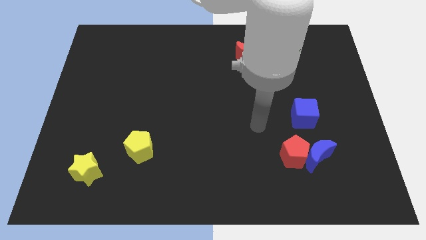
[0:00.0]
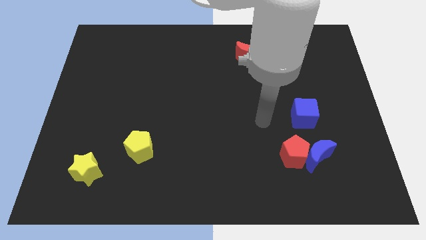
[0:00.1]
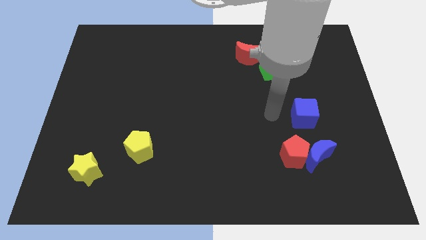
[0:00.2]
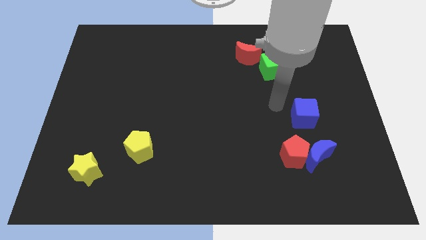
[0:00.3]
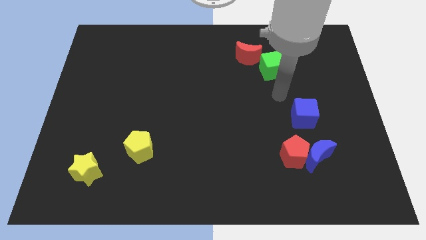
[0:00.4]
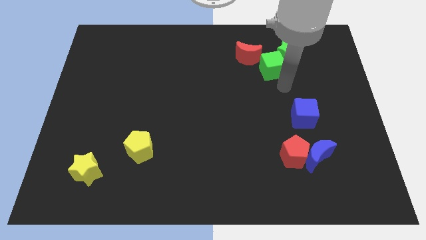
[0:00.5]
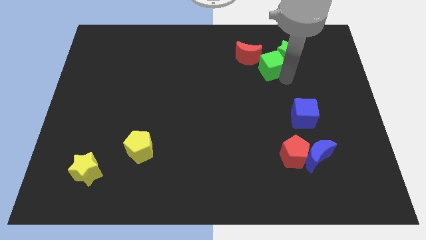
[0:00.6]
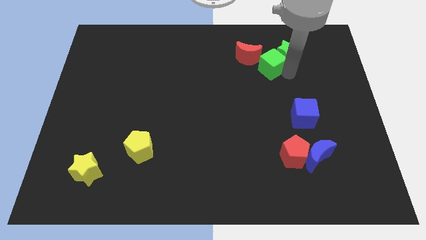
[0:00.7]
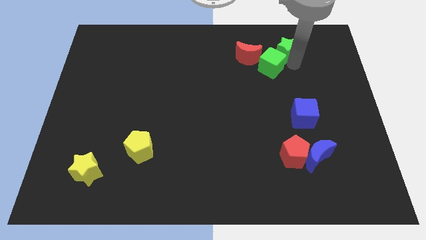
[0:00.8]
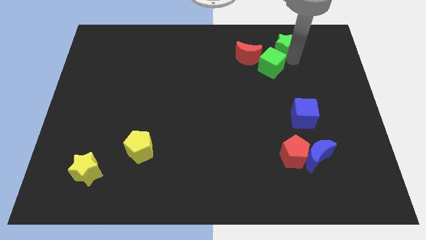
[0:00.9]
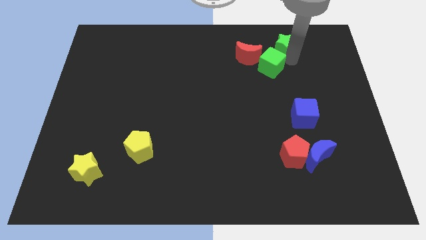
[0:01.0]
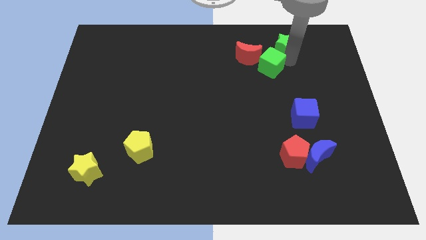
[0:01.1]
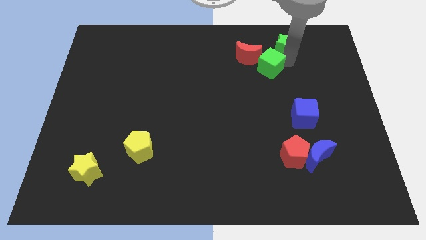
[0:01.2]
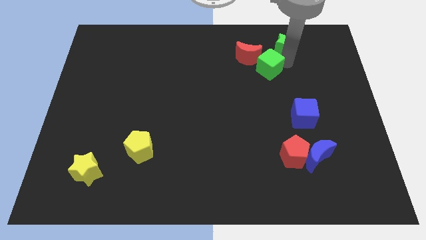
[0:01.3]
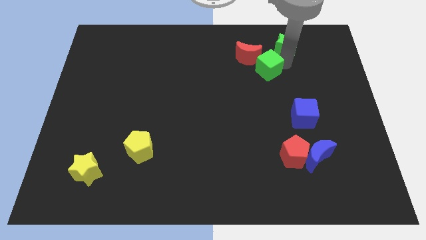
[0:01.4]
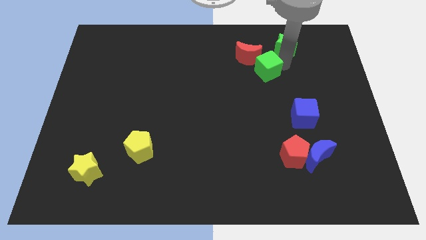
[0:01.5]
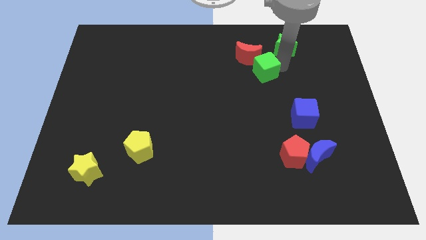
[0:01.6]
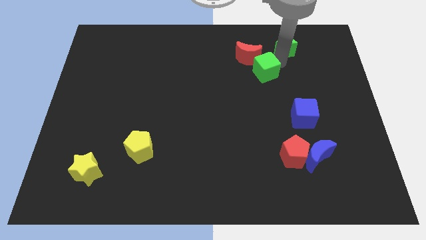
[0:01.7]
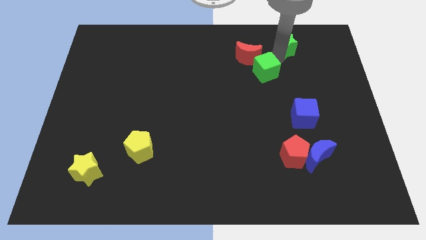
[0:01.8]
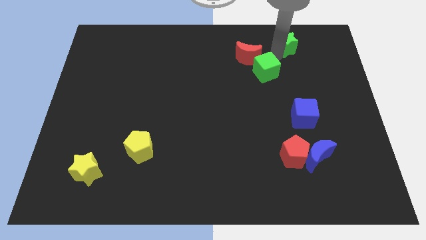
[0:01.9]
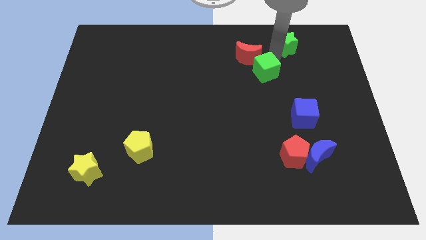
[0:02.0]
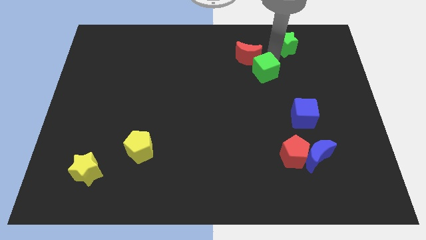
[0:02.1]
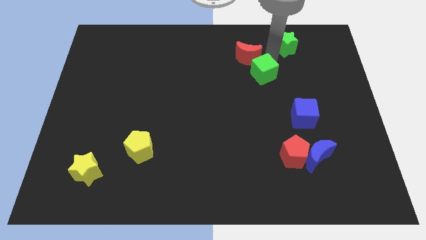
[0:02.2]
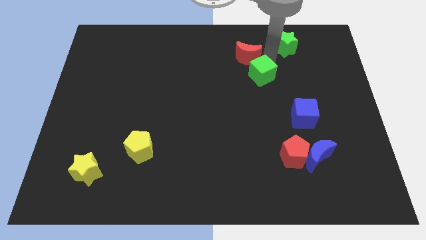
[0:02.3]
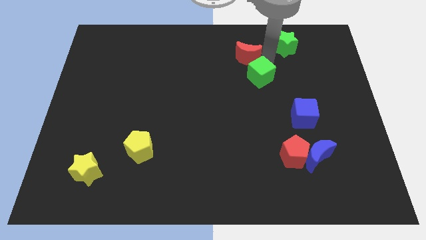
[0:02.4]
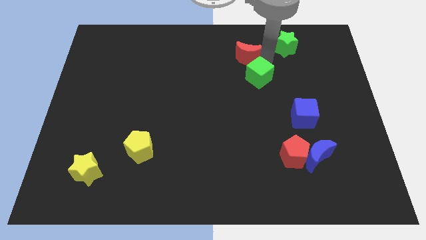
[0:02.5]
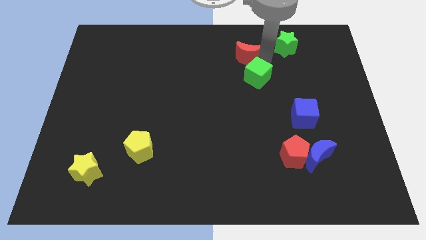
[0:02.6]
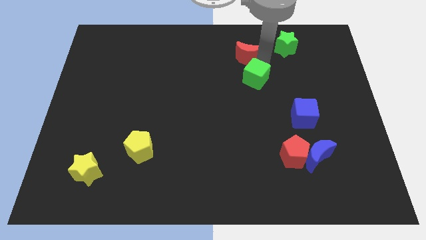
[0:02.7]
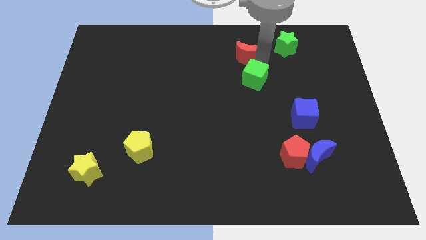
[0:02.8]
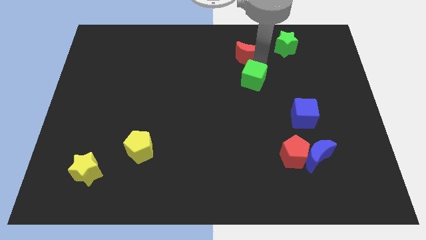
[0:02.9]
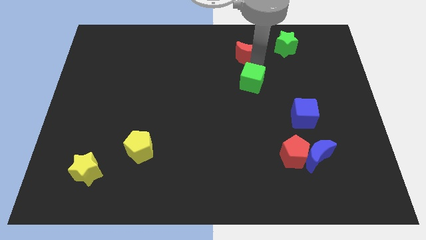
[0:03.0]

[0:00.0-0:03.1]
slightly push the green cube down and to the left diagonally

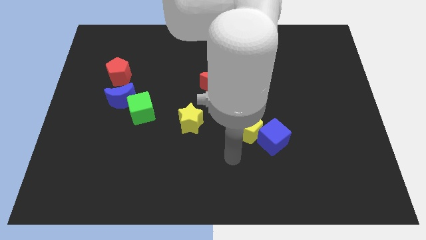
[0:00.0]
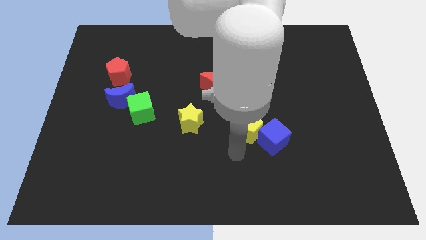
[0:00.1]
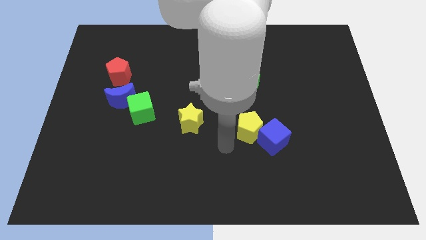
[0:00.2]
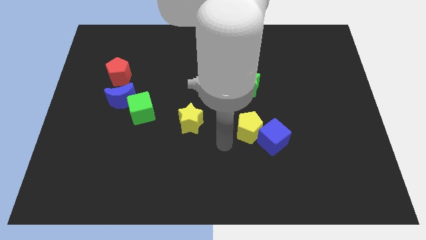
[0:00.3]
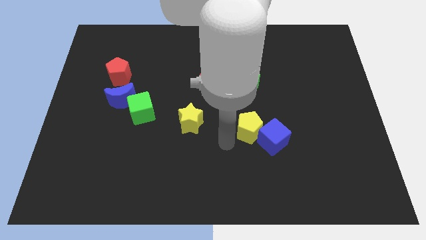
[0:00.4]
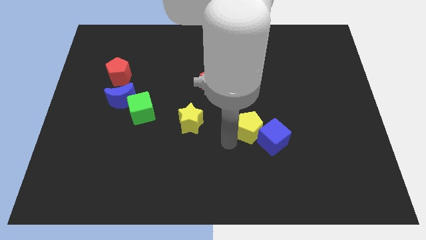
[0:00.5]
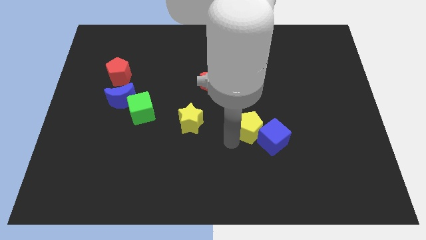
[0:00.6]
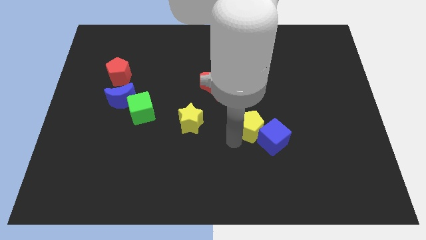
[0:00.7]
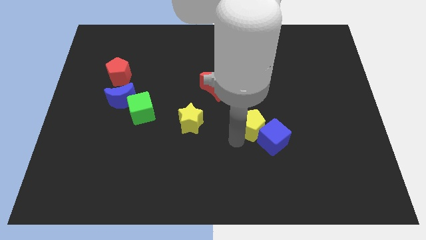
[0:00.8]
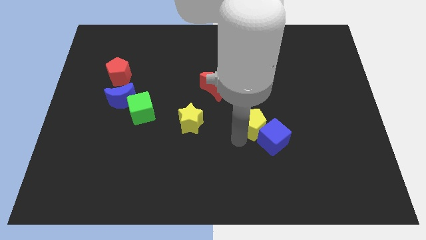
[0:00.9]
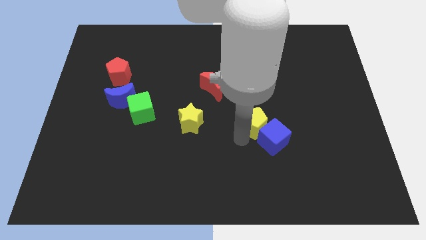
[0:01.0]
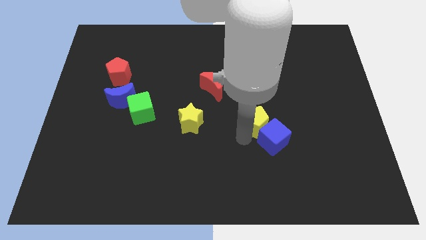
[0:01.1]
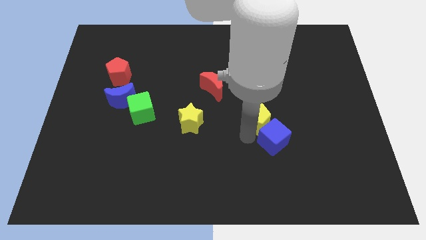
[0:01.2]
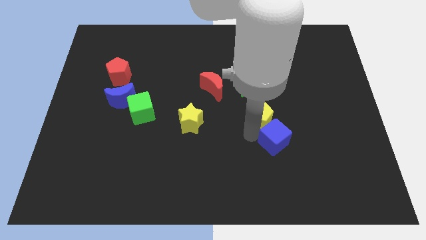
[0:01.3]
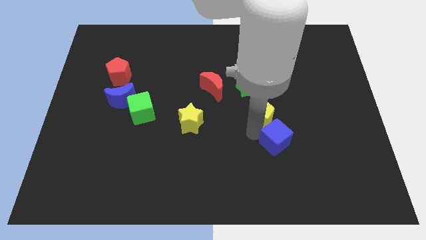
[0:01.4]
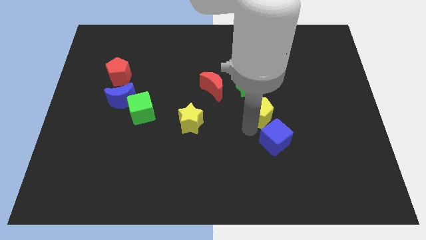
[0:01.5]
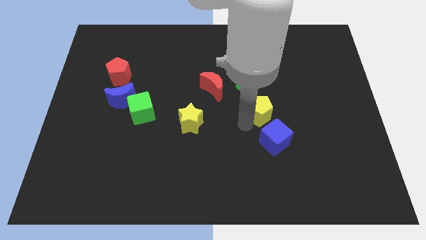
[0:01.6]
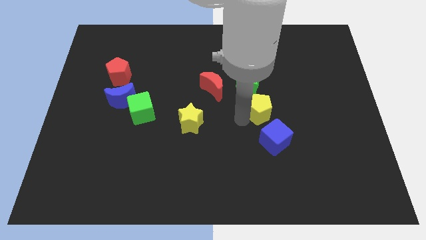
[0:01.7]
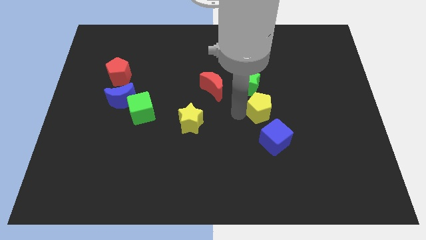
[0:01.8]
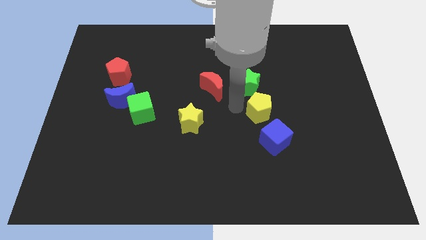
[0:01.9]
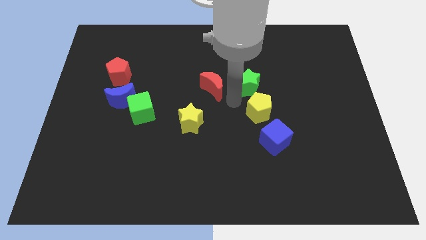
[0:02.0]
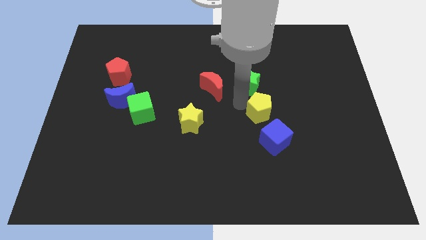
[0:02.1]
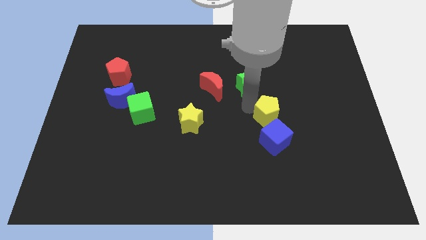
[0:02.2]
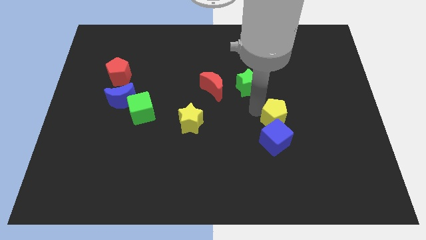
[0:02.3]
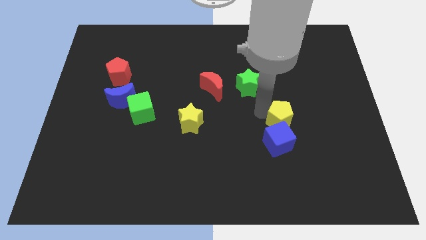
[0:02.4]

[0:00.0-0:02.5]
slightly slide the yellow pentagon to the right

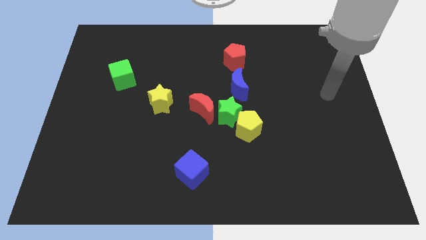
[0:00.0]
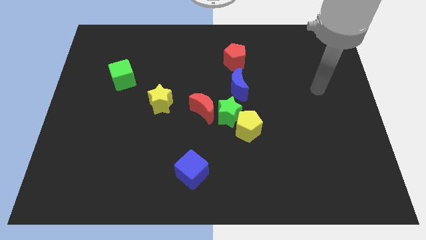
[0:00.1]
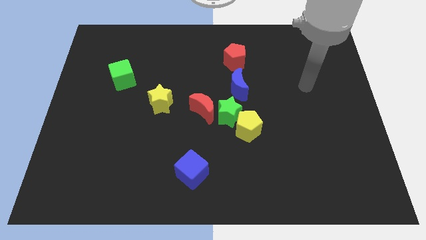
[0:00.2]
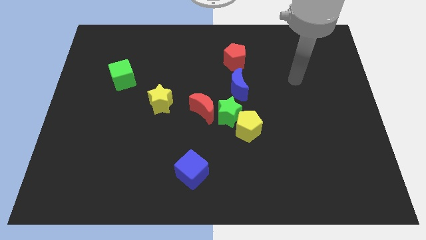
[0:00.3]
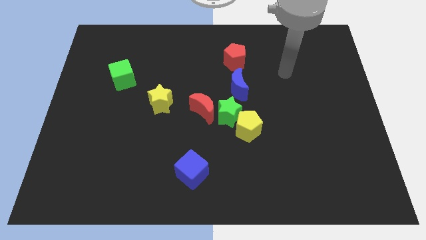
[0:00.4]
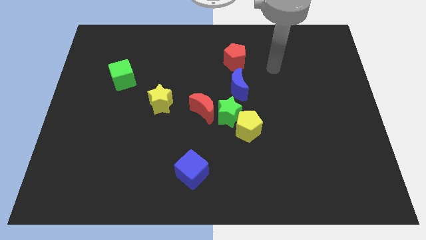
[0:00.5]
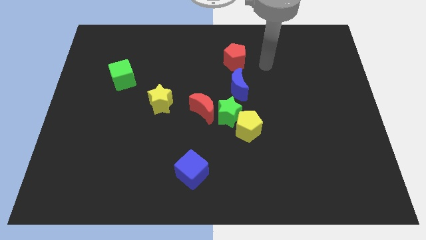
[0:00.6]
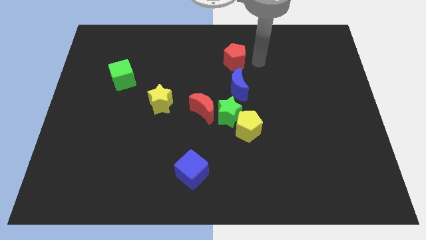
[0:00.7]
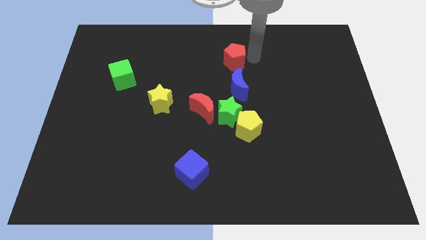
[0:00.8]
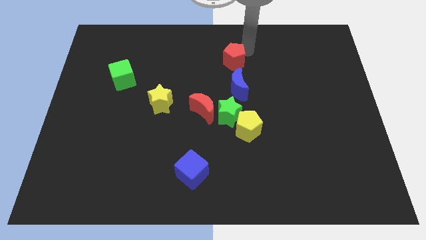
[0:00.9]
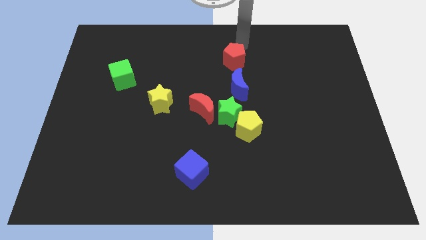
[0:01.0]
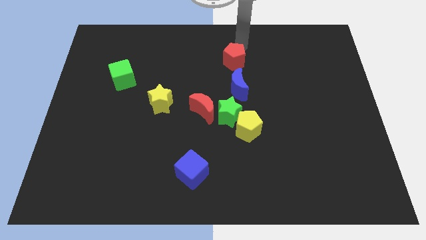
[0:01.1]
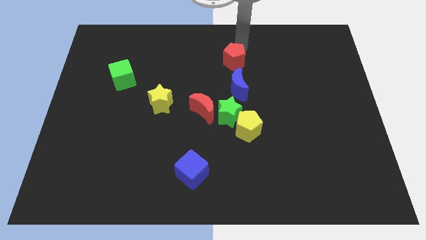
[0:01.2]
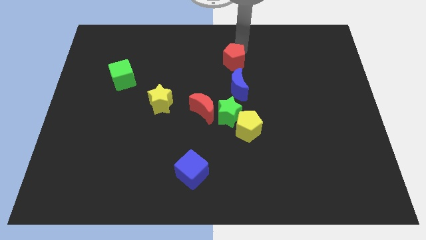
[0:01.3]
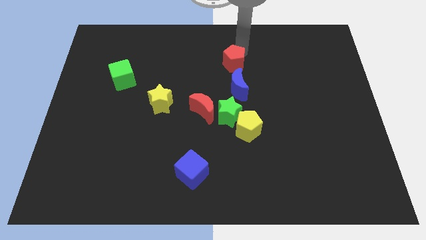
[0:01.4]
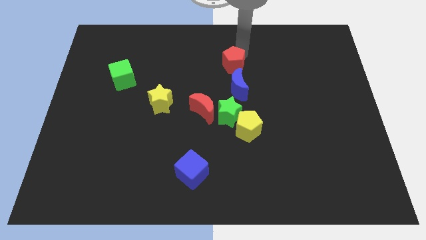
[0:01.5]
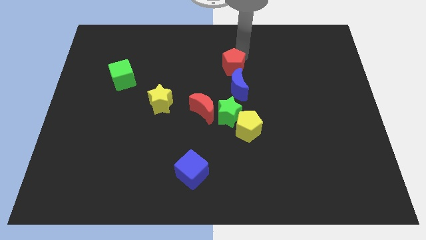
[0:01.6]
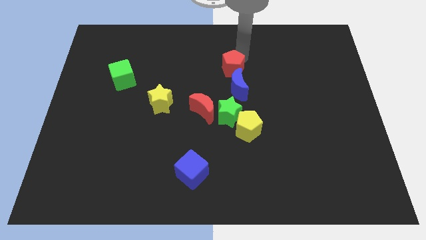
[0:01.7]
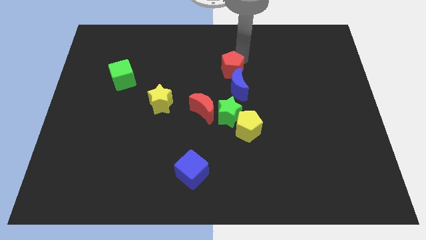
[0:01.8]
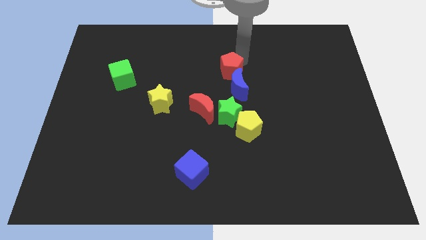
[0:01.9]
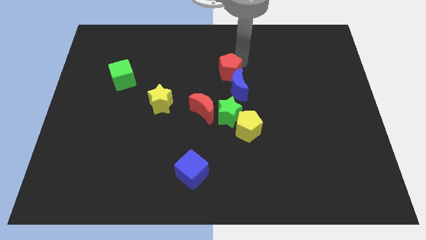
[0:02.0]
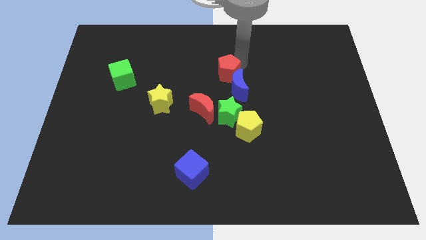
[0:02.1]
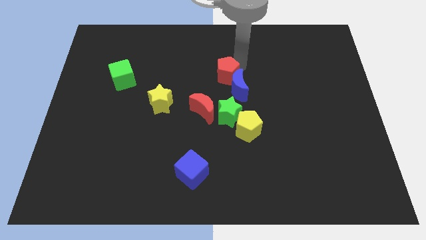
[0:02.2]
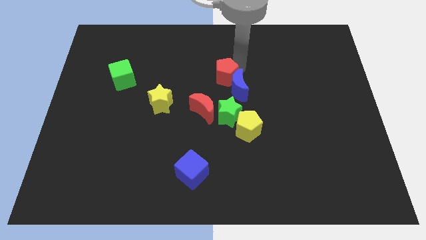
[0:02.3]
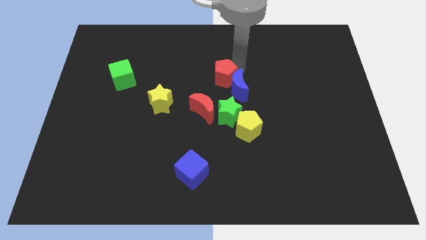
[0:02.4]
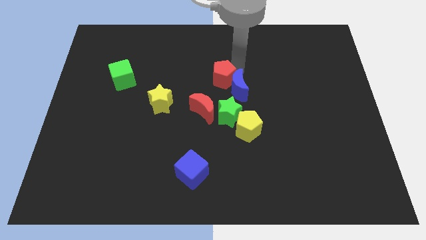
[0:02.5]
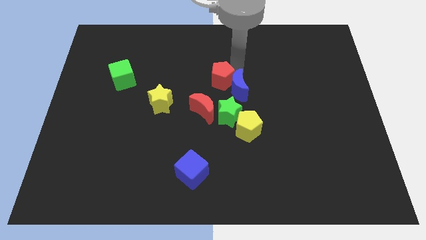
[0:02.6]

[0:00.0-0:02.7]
slightly move the red pentagon diagonally downwards and left
